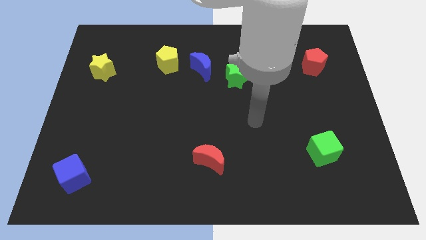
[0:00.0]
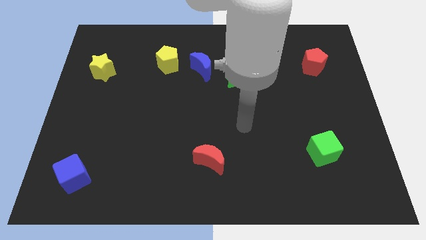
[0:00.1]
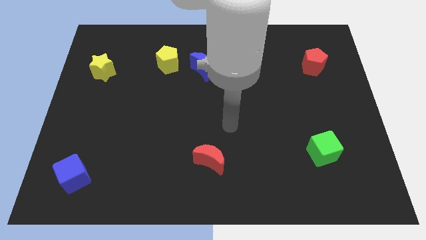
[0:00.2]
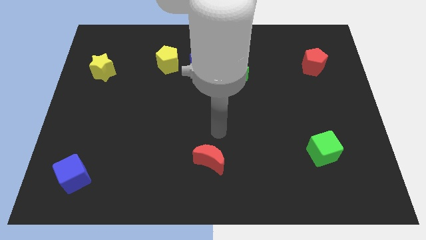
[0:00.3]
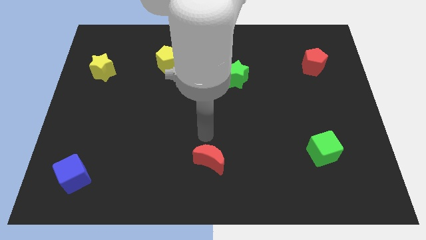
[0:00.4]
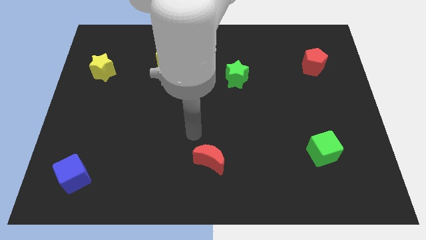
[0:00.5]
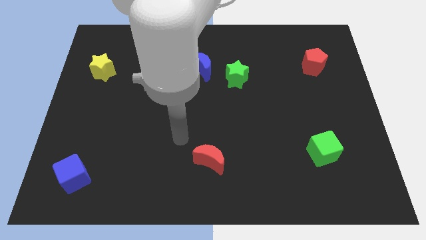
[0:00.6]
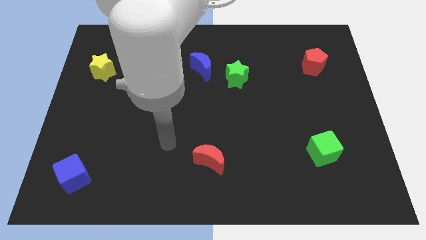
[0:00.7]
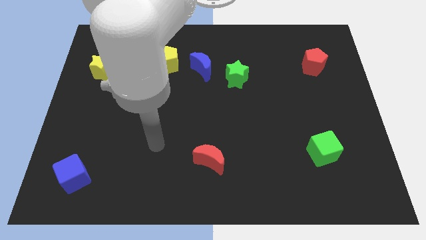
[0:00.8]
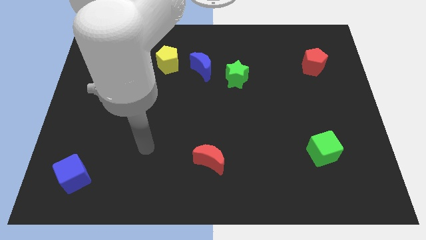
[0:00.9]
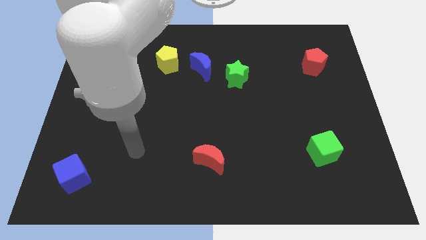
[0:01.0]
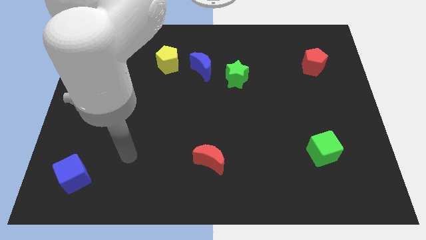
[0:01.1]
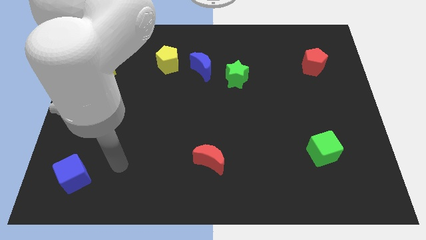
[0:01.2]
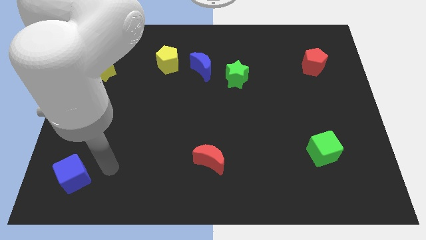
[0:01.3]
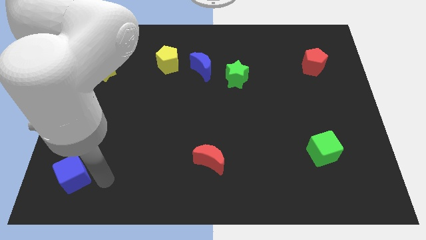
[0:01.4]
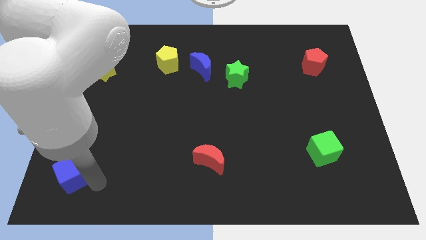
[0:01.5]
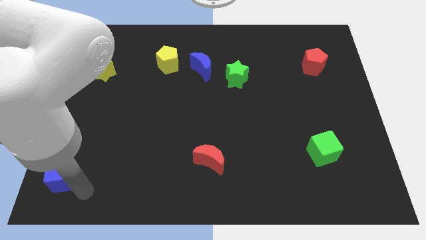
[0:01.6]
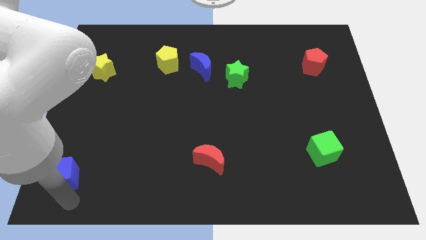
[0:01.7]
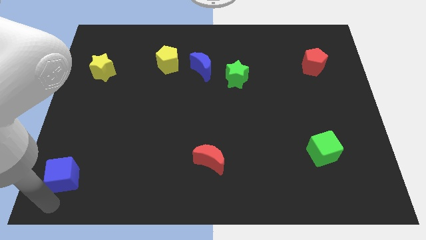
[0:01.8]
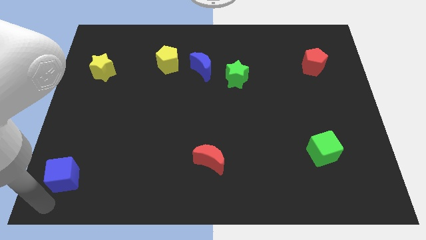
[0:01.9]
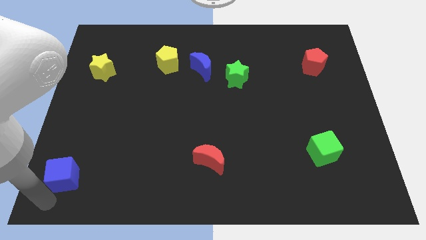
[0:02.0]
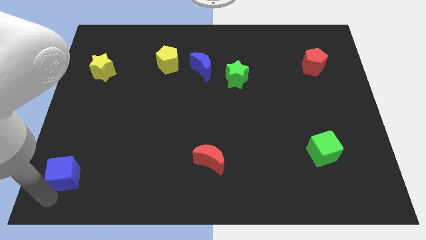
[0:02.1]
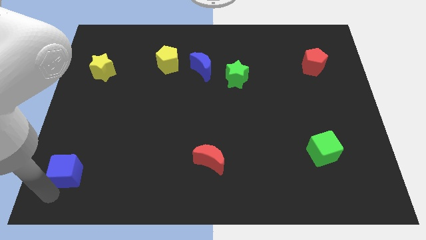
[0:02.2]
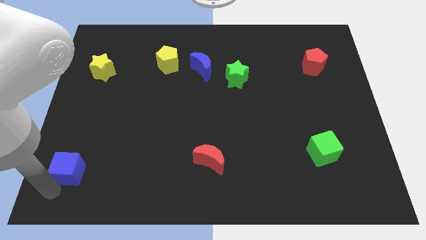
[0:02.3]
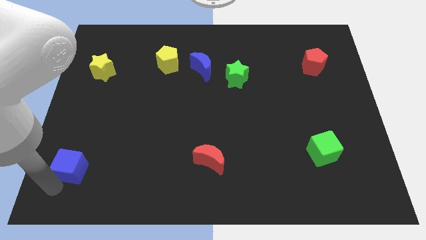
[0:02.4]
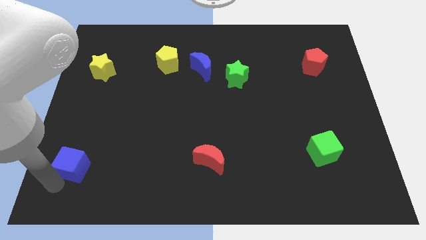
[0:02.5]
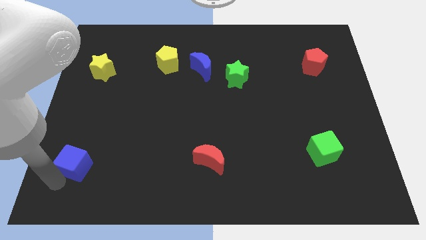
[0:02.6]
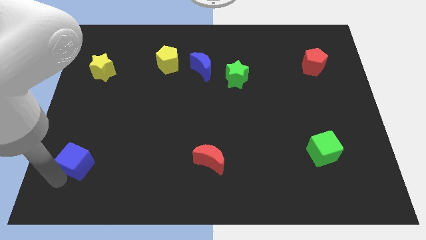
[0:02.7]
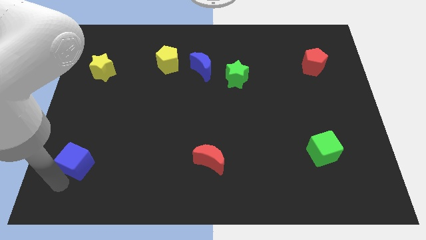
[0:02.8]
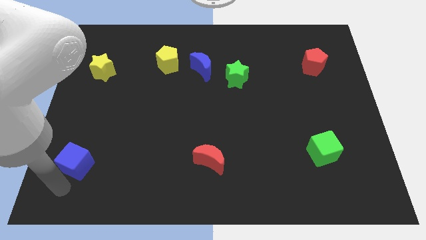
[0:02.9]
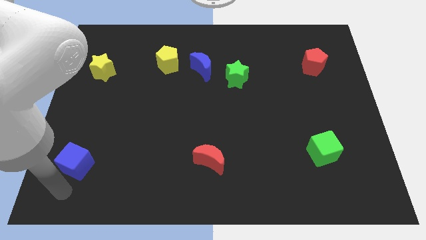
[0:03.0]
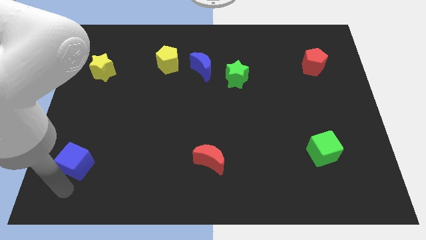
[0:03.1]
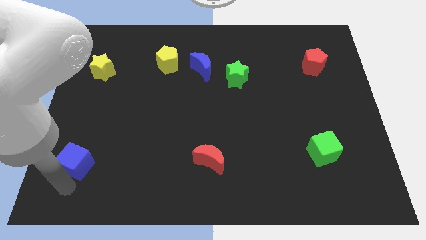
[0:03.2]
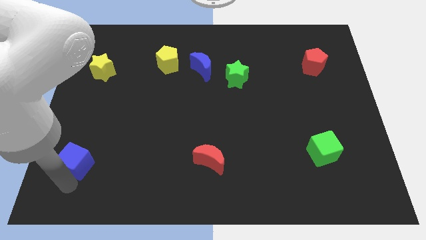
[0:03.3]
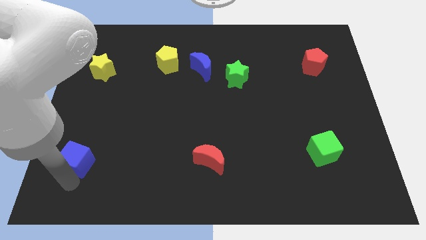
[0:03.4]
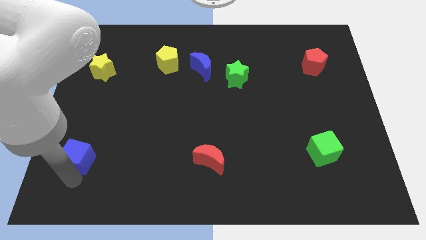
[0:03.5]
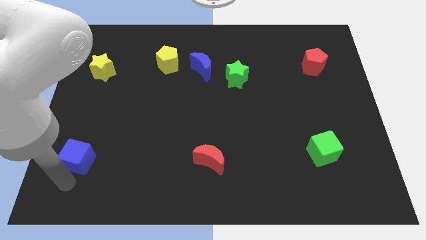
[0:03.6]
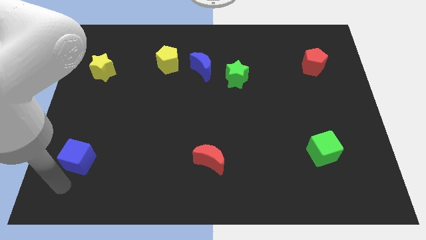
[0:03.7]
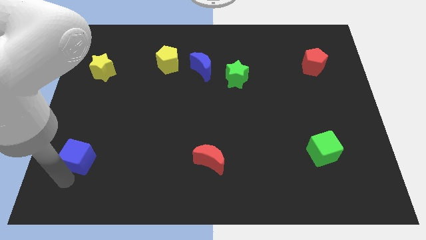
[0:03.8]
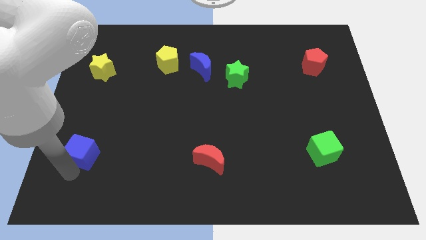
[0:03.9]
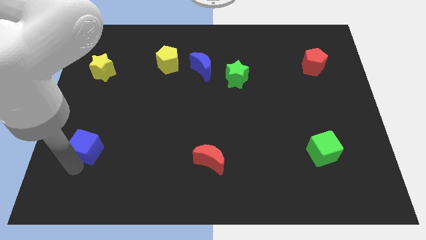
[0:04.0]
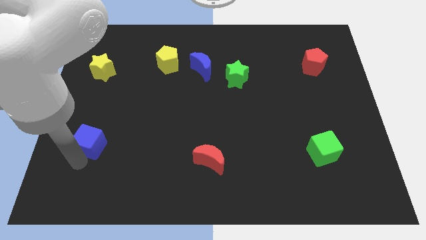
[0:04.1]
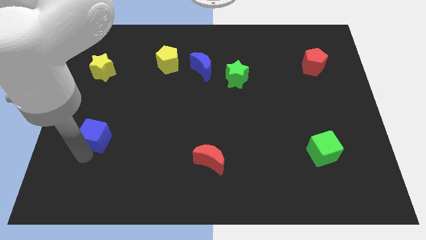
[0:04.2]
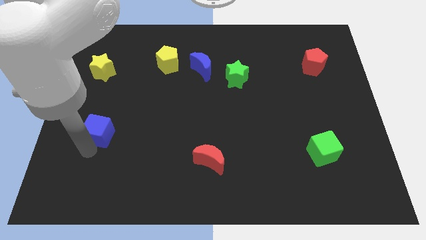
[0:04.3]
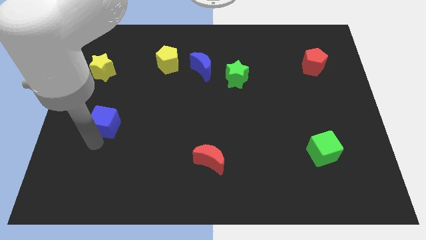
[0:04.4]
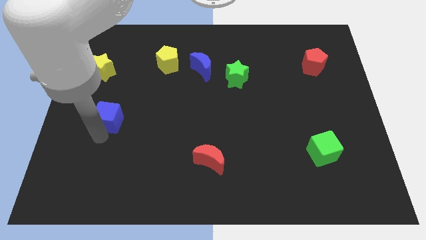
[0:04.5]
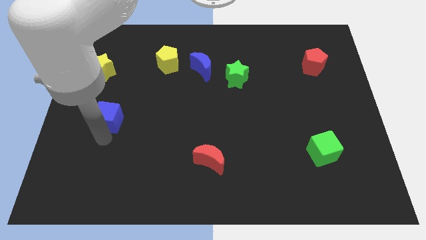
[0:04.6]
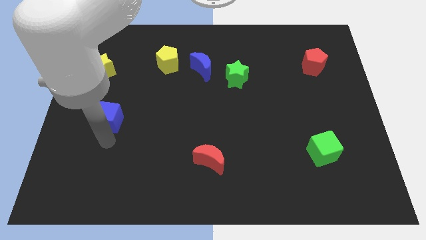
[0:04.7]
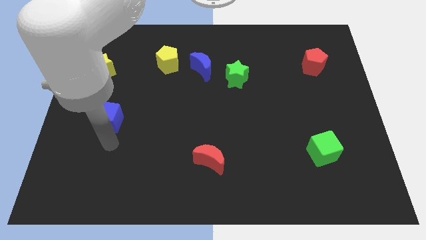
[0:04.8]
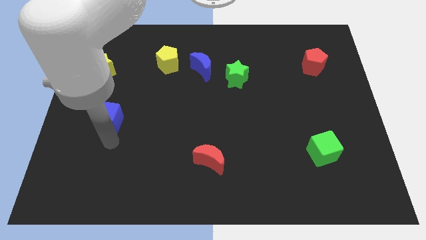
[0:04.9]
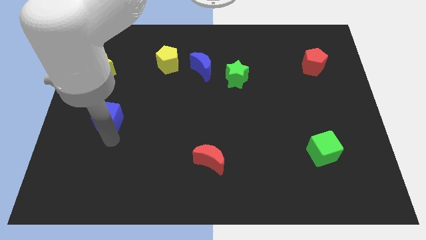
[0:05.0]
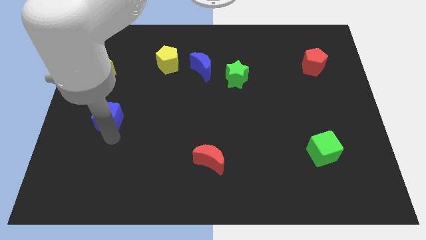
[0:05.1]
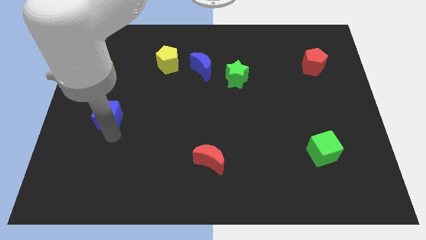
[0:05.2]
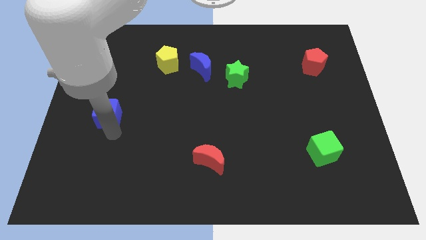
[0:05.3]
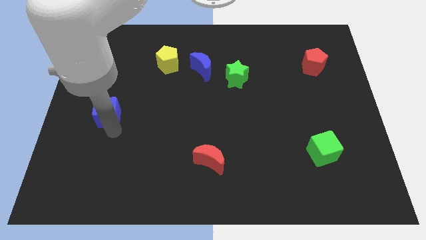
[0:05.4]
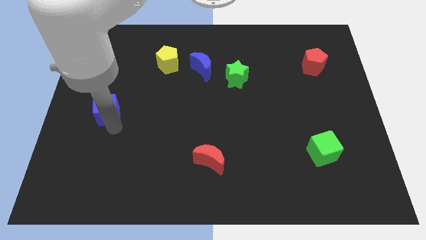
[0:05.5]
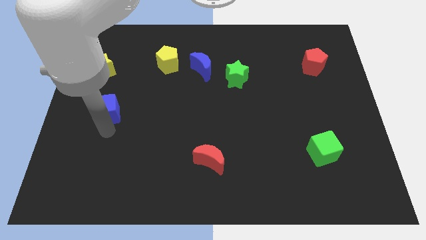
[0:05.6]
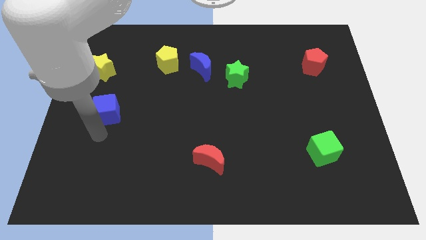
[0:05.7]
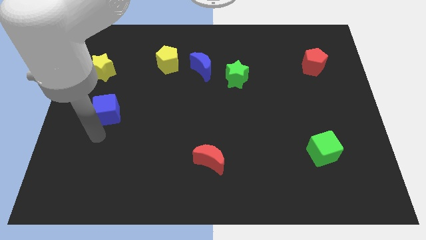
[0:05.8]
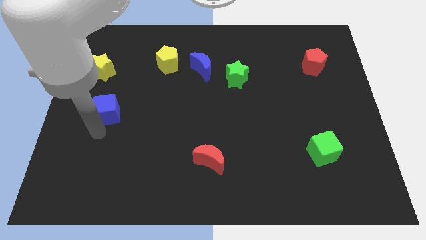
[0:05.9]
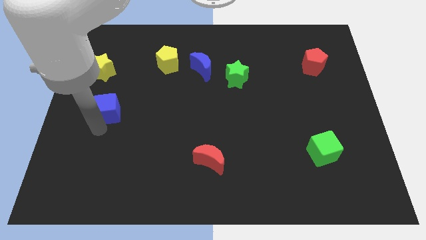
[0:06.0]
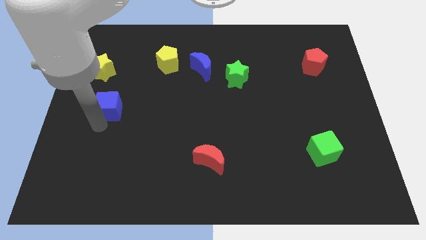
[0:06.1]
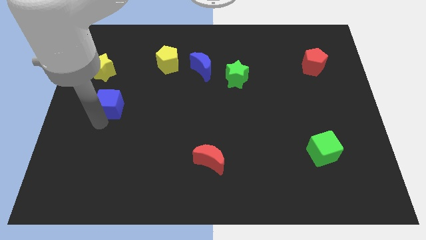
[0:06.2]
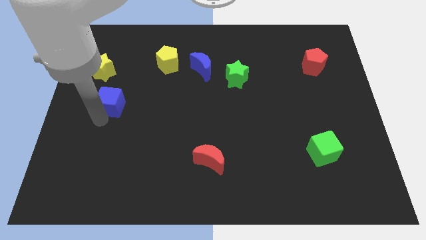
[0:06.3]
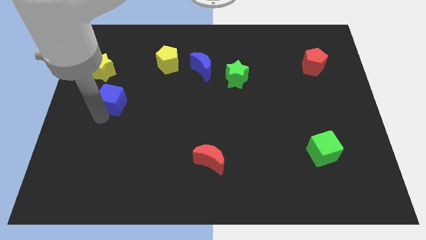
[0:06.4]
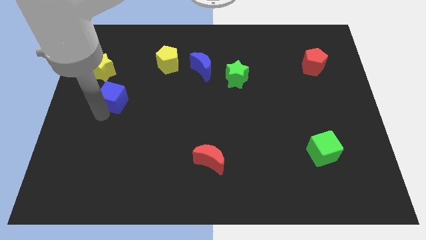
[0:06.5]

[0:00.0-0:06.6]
put the blue cube to the bottom right side of the yellow star

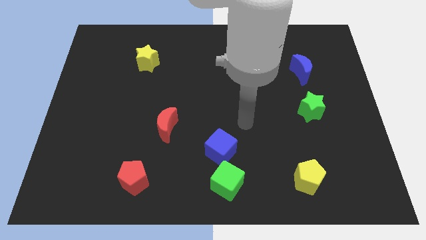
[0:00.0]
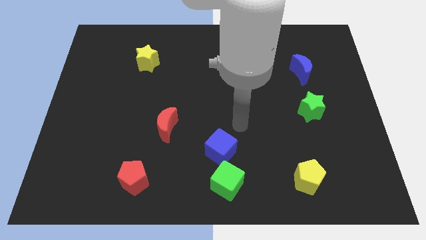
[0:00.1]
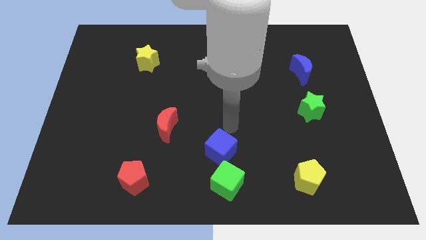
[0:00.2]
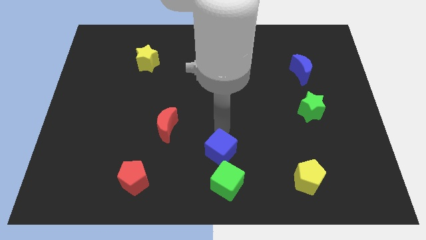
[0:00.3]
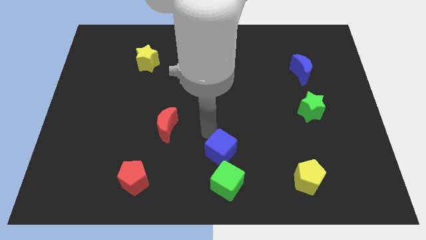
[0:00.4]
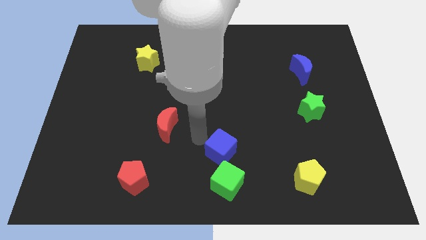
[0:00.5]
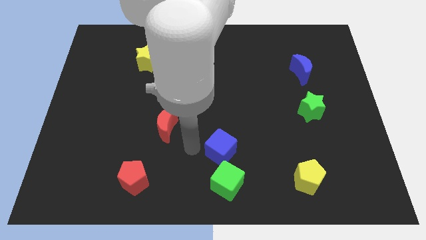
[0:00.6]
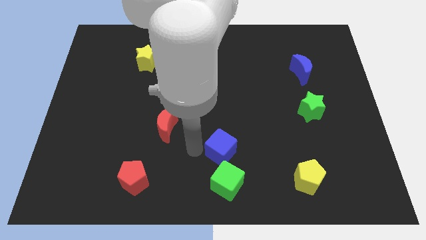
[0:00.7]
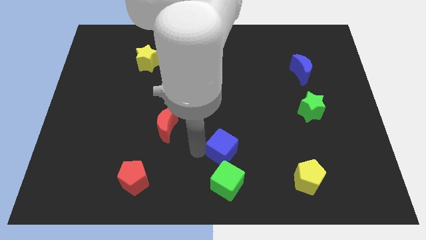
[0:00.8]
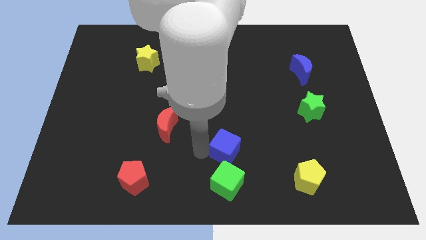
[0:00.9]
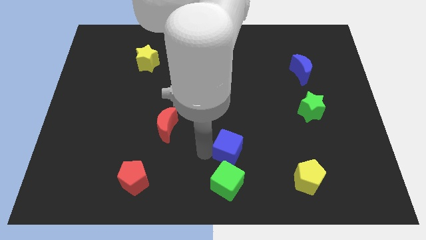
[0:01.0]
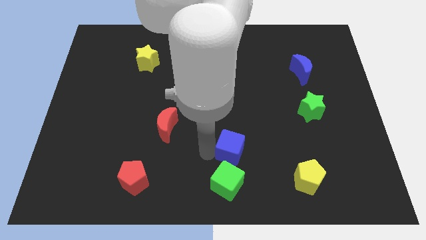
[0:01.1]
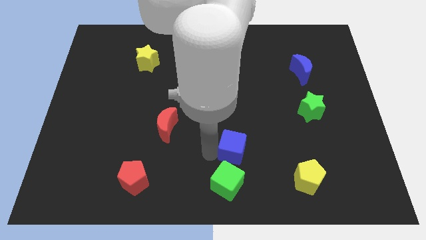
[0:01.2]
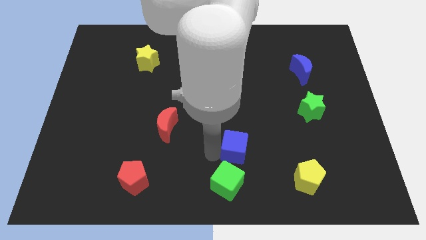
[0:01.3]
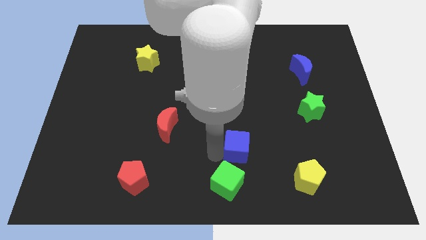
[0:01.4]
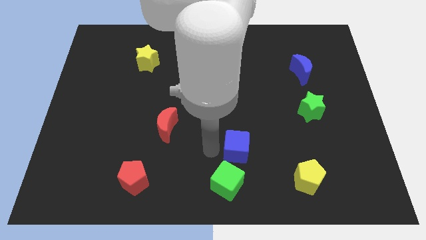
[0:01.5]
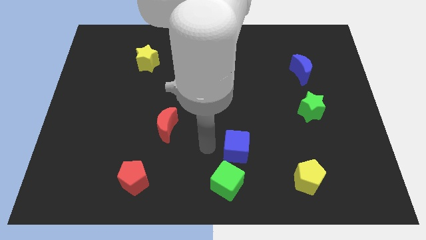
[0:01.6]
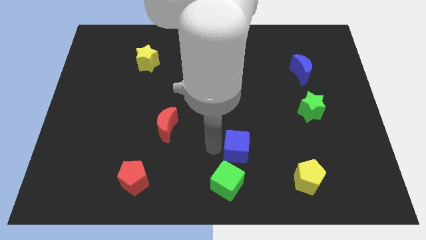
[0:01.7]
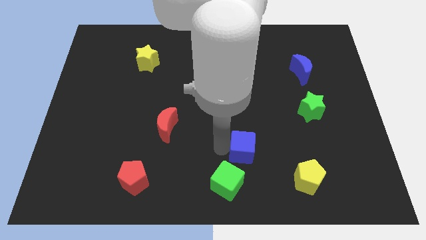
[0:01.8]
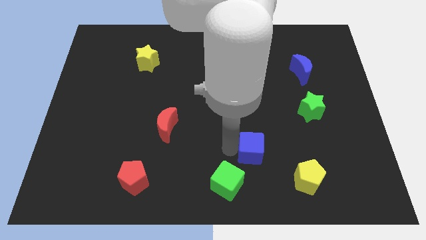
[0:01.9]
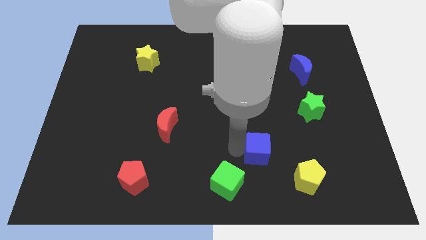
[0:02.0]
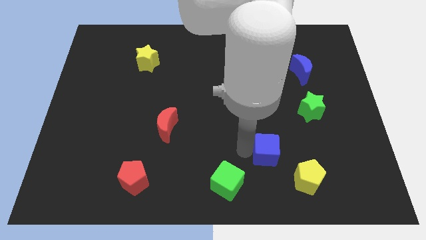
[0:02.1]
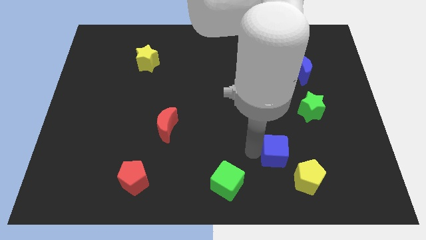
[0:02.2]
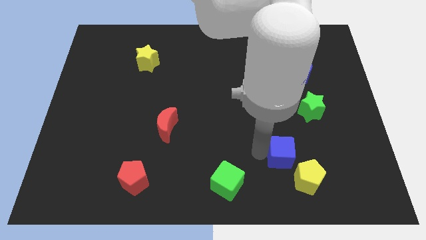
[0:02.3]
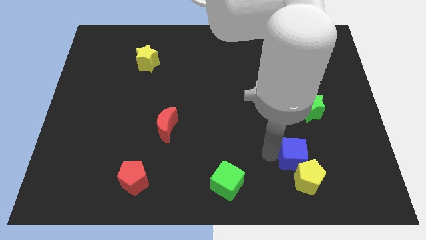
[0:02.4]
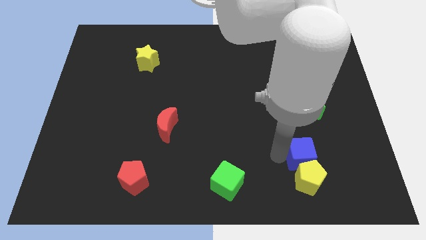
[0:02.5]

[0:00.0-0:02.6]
move the blue cube to the top right of the yellow pentagon
